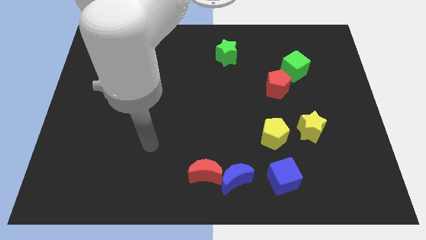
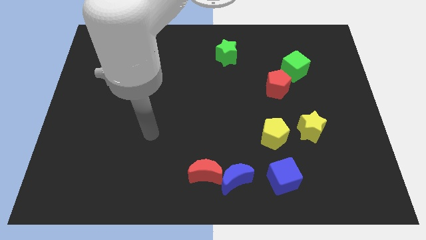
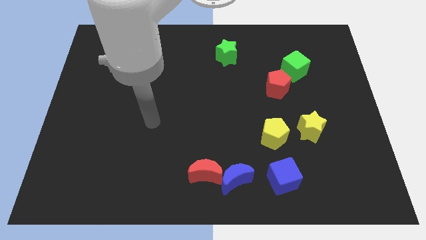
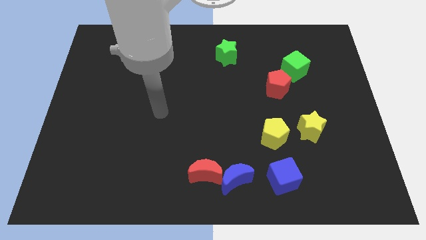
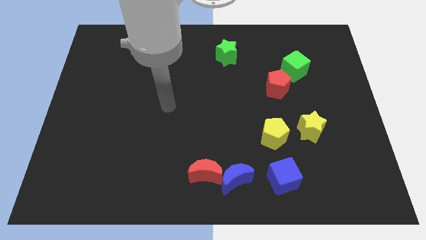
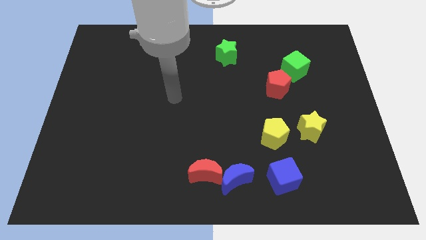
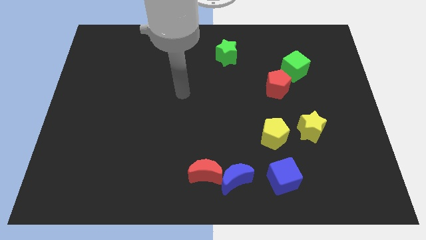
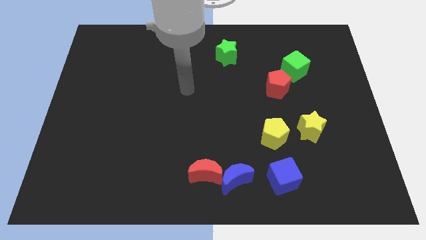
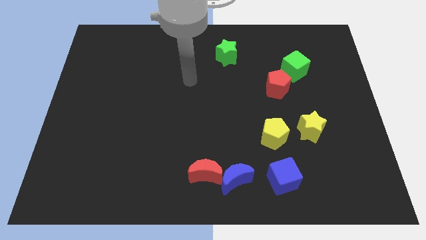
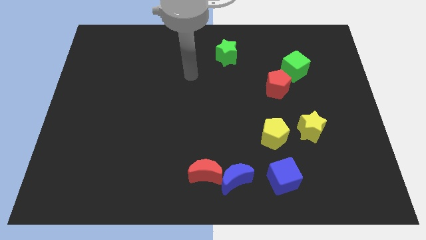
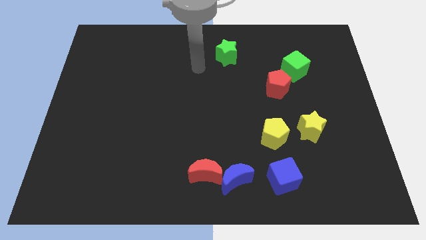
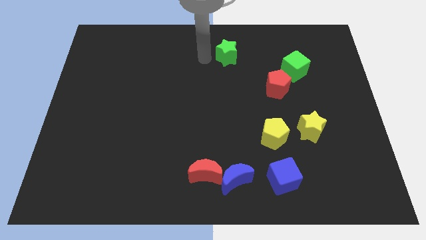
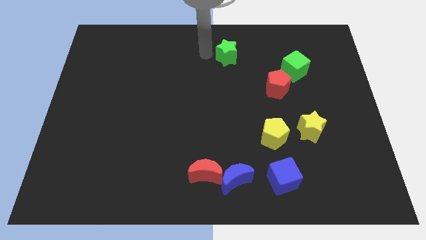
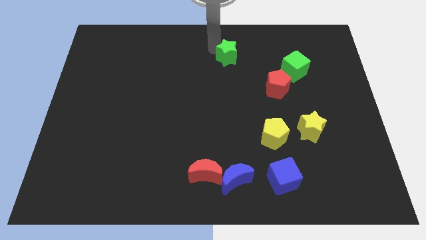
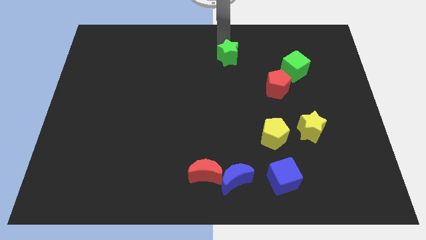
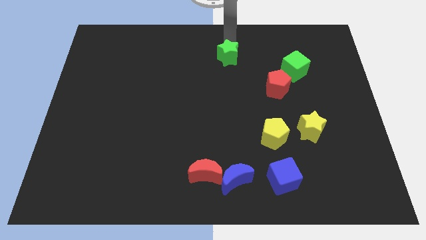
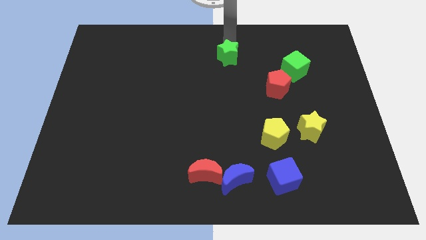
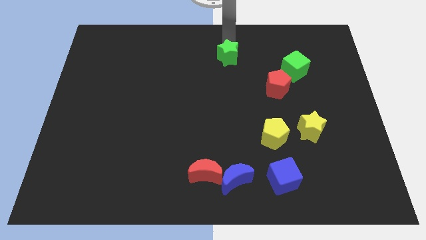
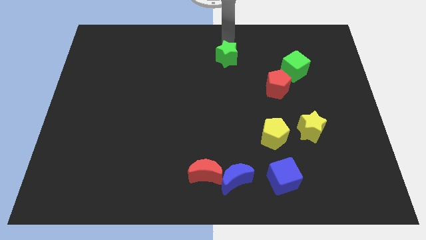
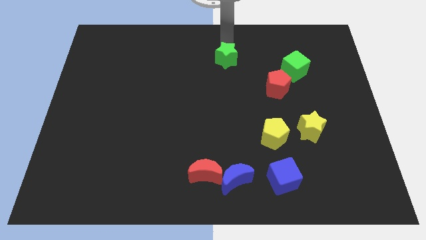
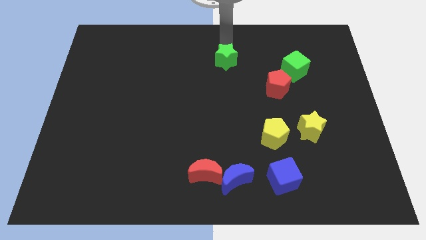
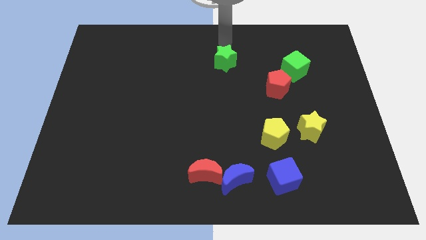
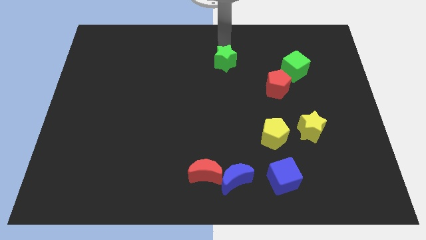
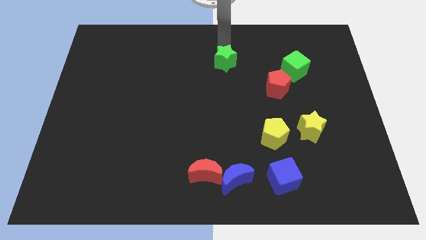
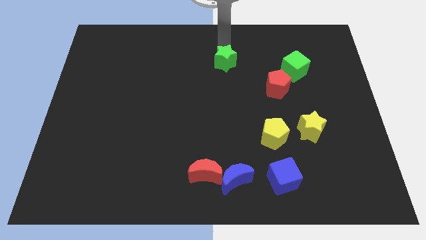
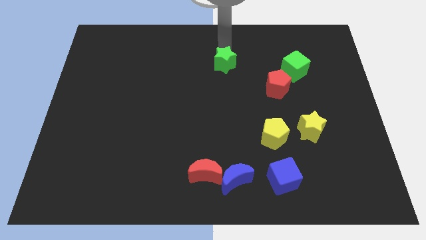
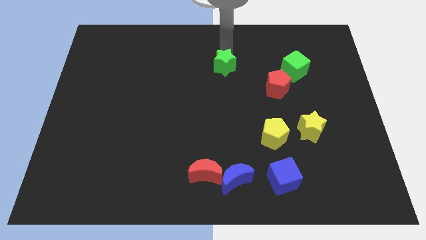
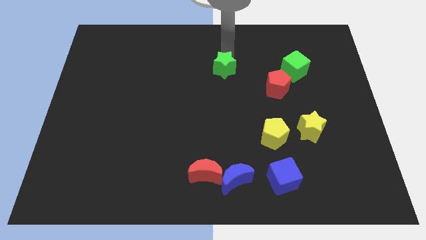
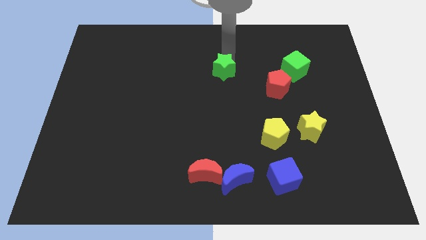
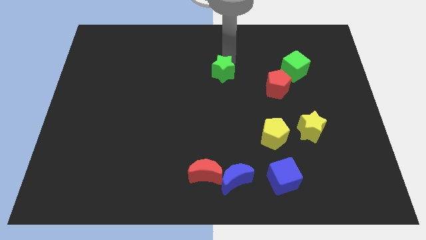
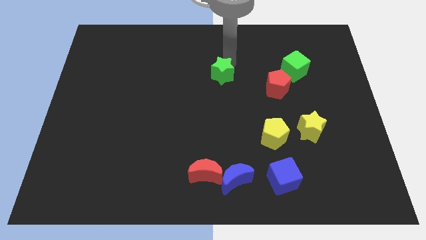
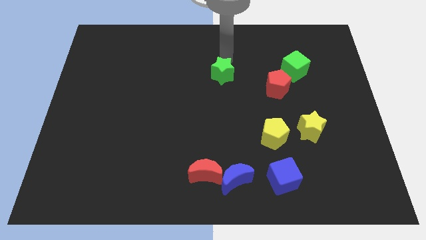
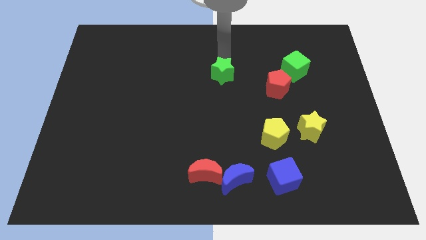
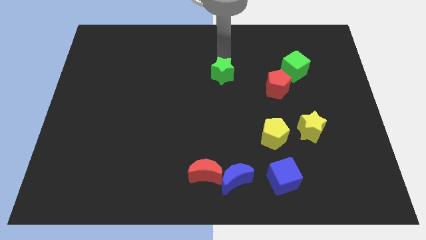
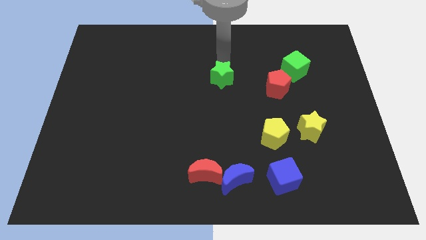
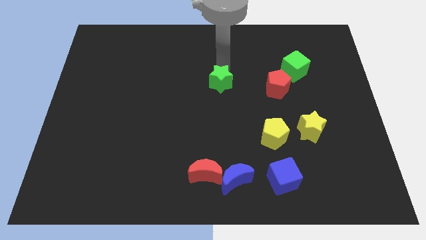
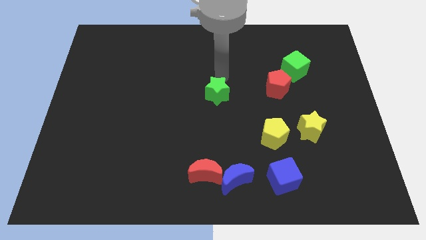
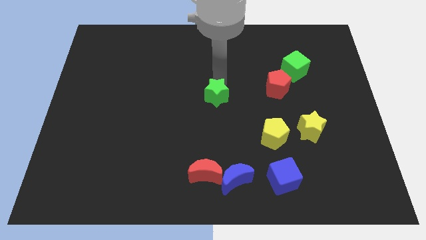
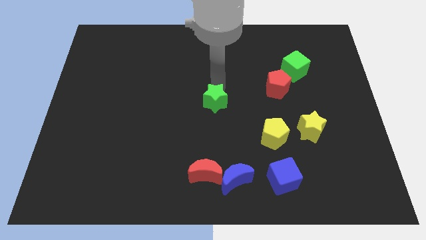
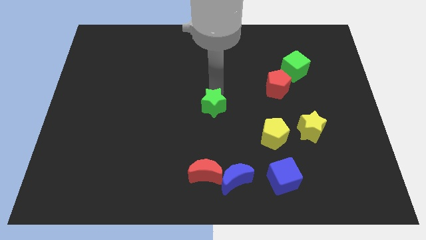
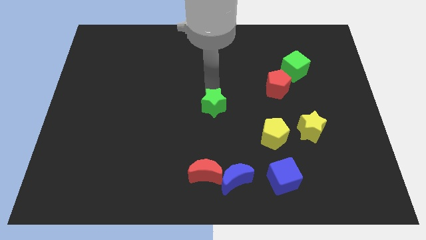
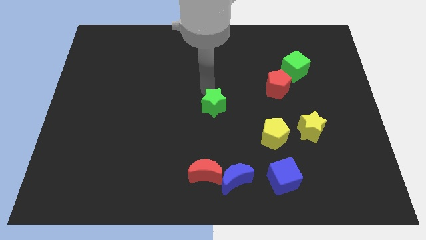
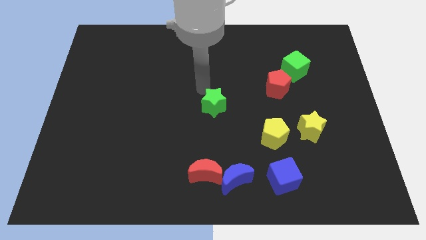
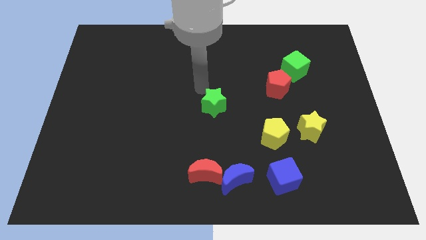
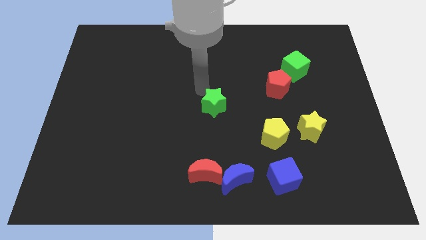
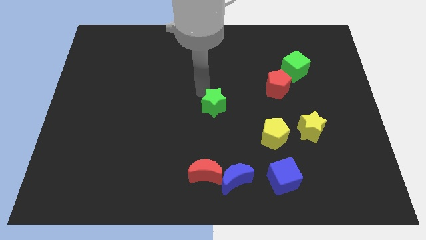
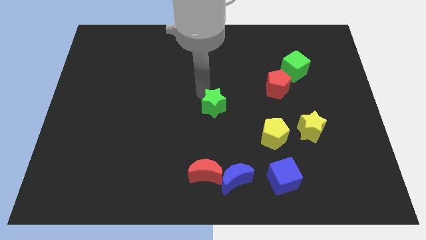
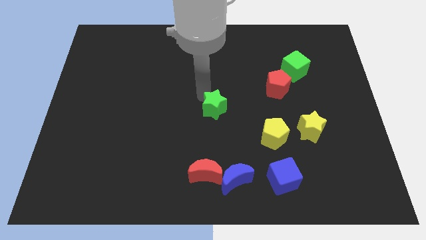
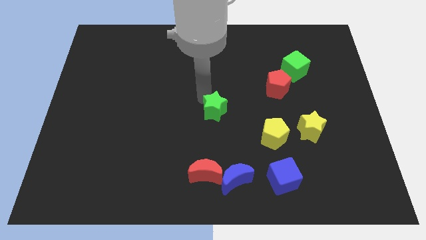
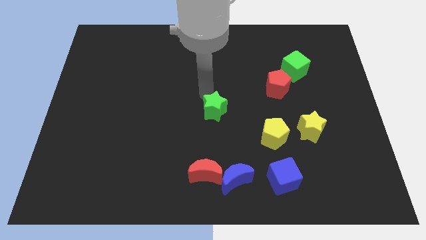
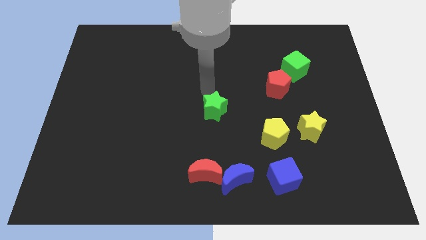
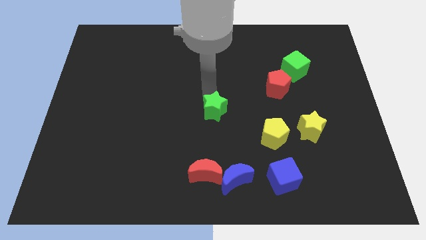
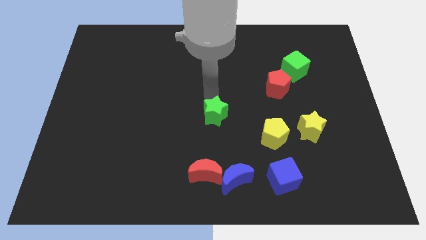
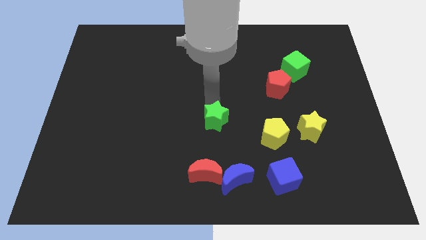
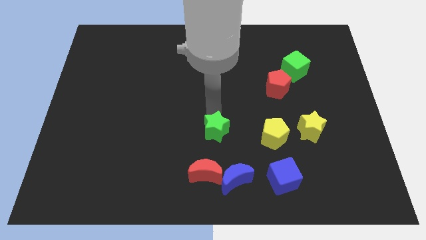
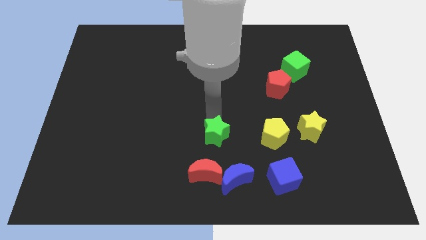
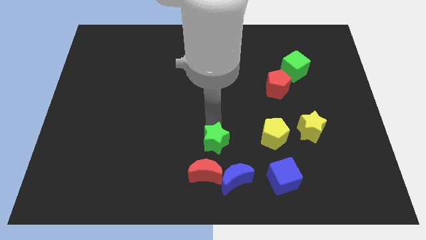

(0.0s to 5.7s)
put the green star to the top right of the red moon

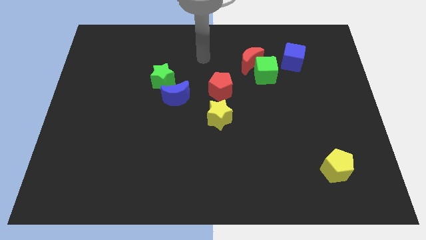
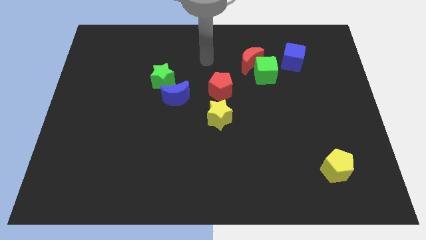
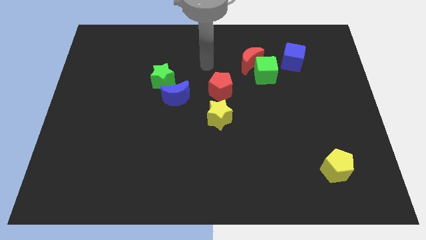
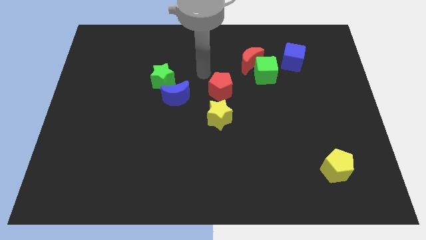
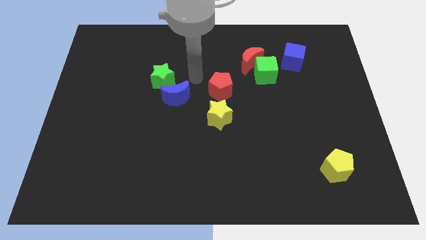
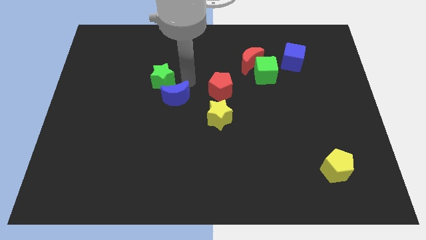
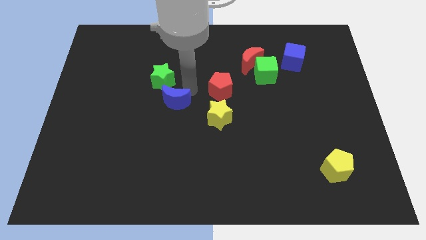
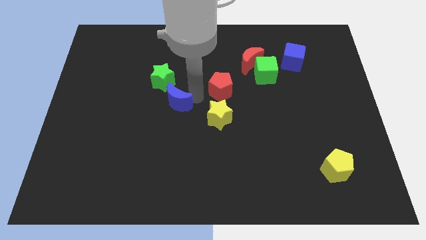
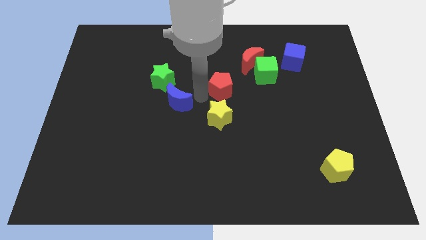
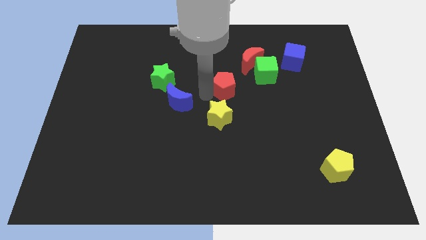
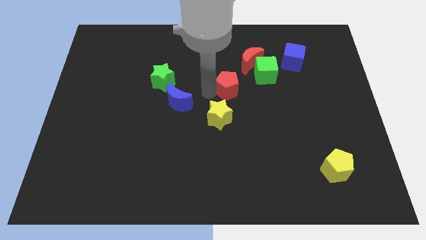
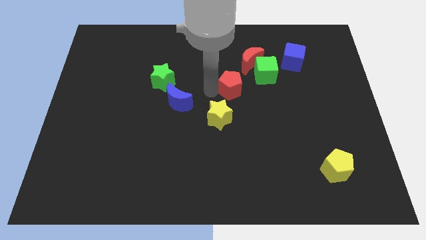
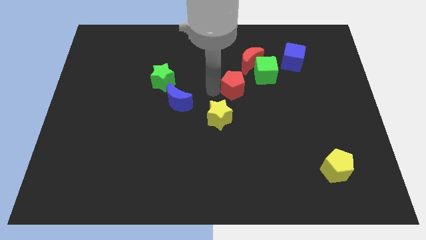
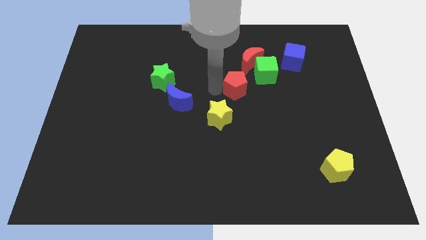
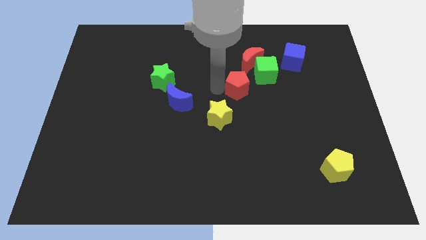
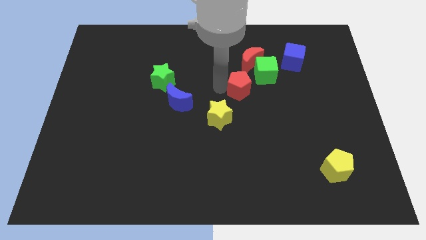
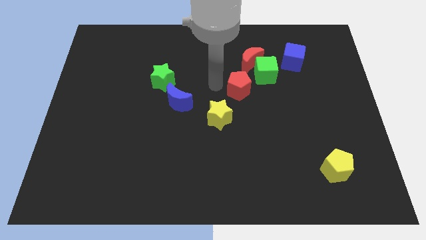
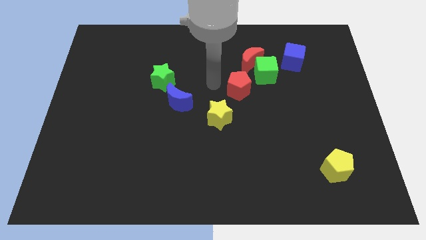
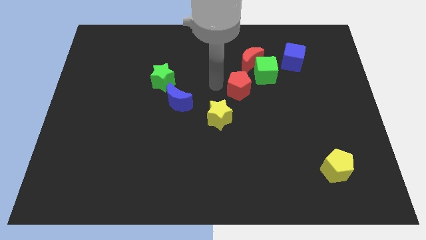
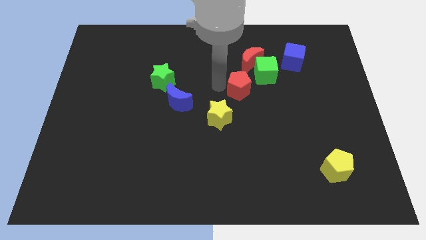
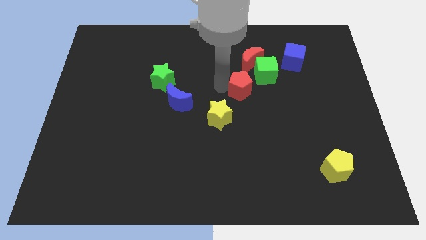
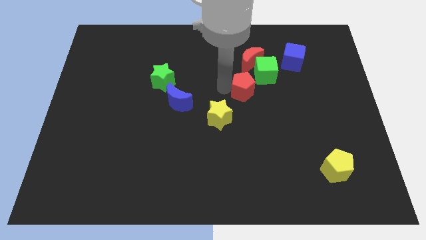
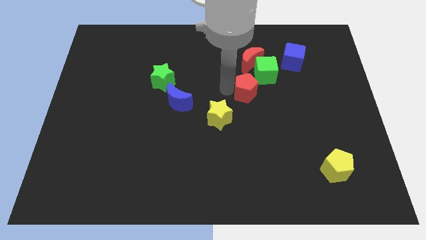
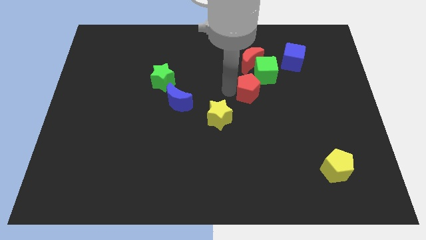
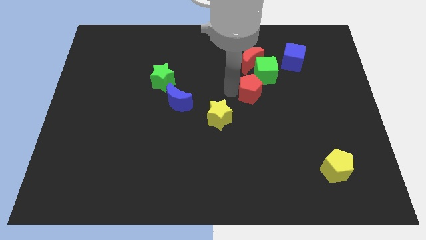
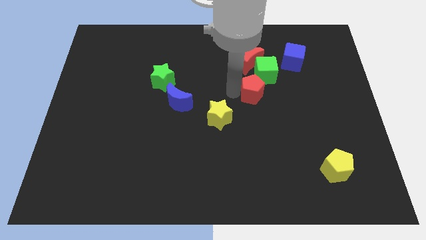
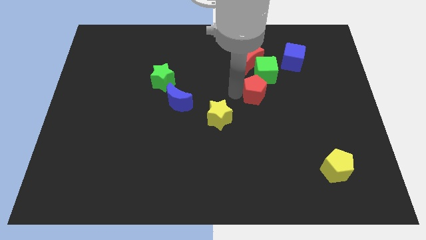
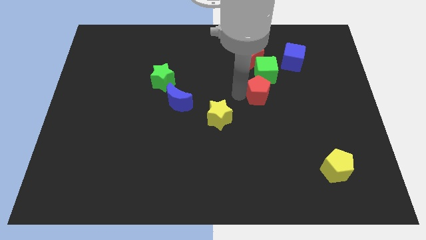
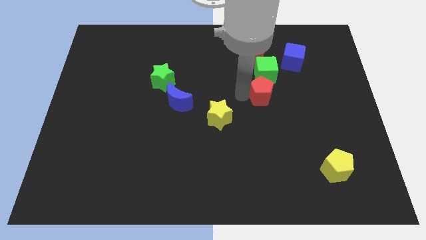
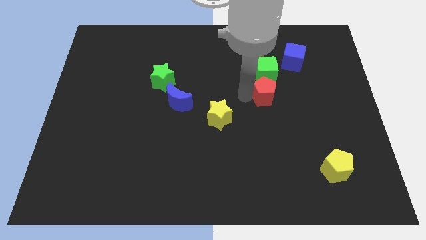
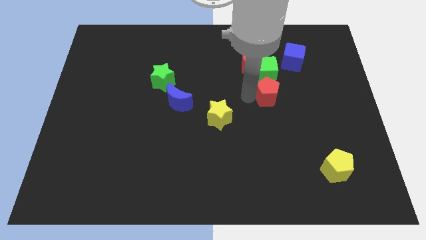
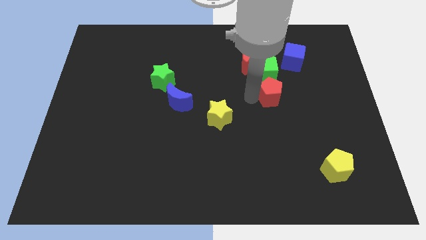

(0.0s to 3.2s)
put the red pentagon diagonally down and to the right of the green cube
